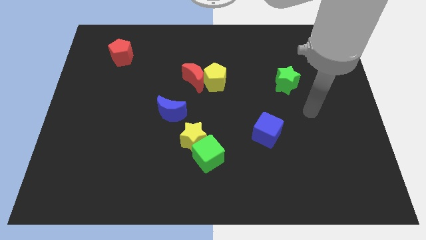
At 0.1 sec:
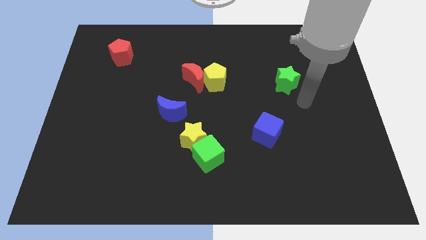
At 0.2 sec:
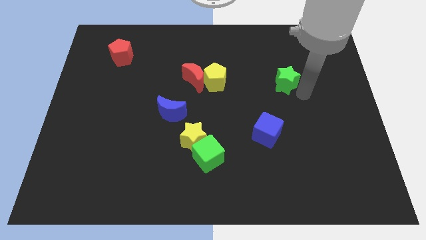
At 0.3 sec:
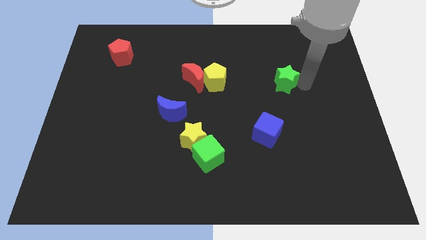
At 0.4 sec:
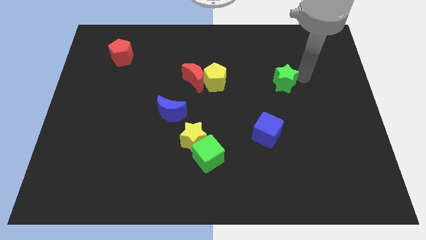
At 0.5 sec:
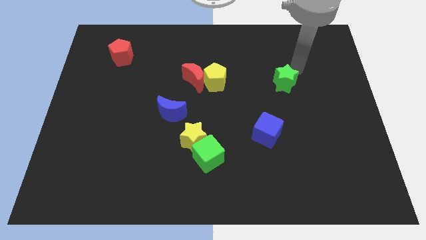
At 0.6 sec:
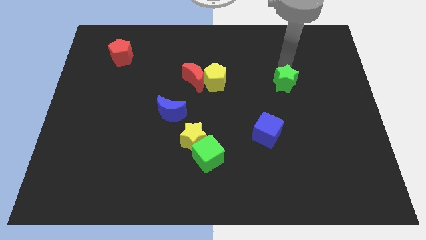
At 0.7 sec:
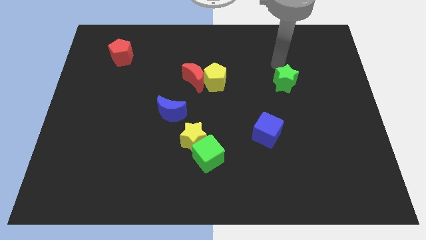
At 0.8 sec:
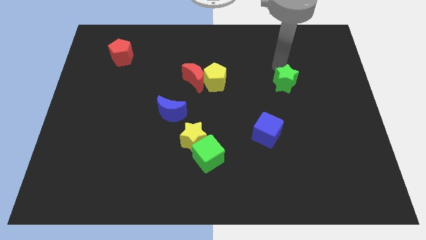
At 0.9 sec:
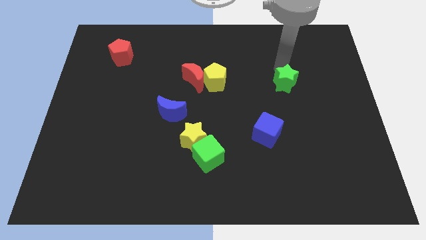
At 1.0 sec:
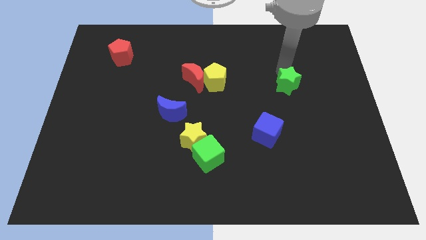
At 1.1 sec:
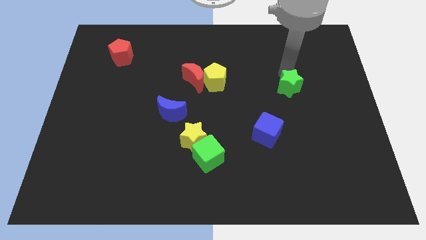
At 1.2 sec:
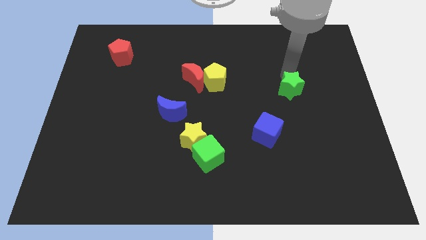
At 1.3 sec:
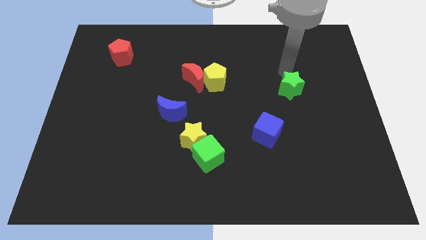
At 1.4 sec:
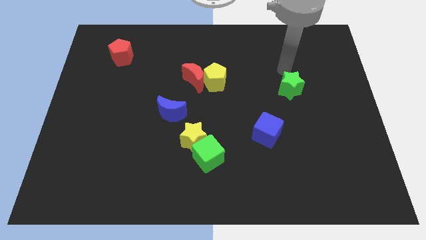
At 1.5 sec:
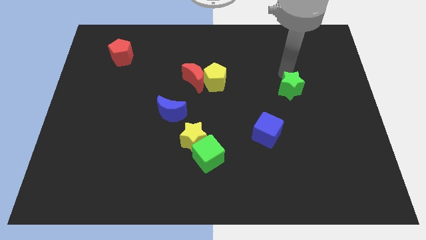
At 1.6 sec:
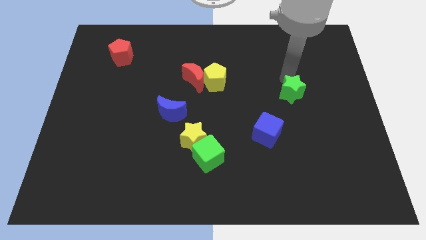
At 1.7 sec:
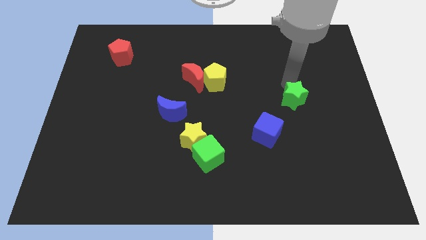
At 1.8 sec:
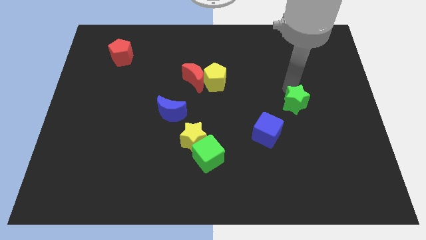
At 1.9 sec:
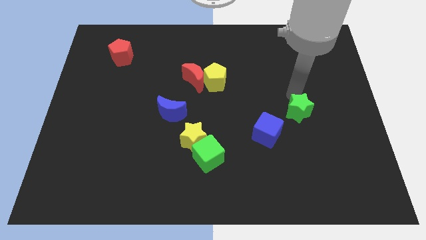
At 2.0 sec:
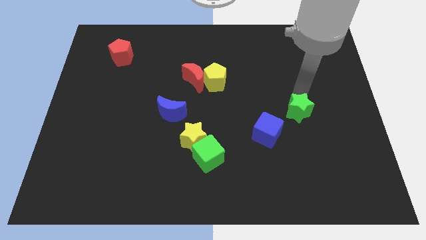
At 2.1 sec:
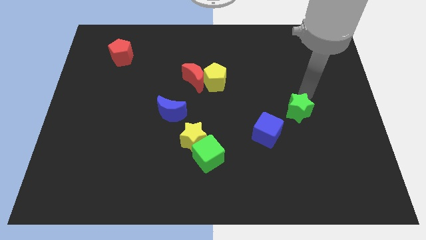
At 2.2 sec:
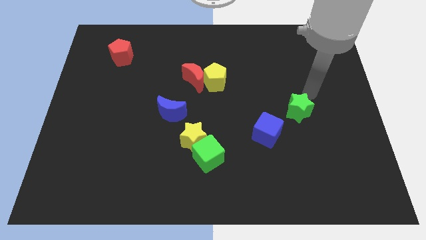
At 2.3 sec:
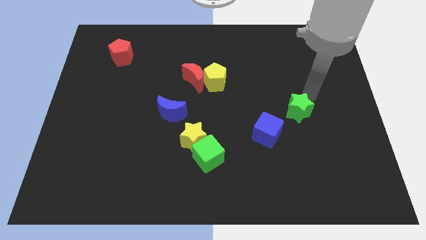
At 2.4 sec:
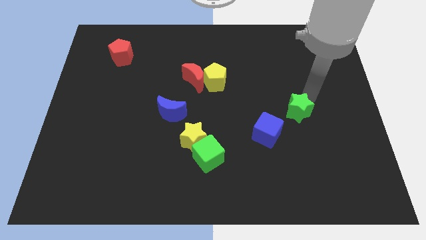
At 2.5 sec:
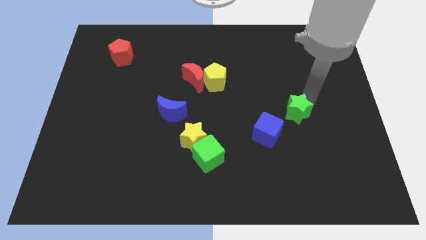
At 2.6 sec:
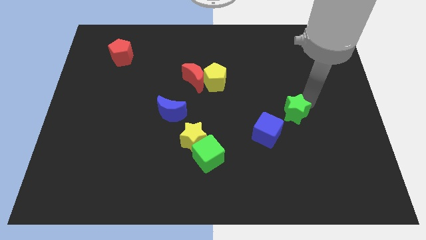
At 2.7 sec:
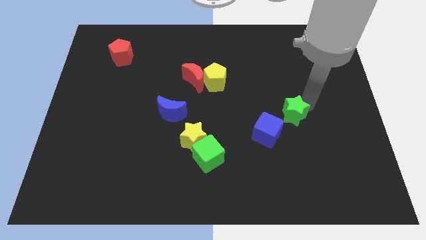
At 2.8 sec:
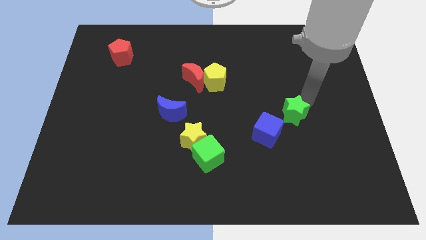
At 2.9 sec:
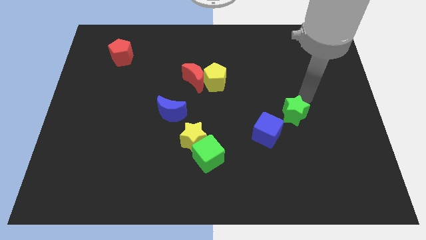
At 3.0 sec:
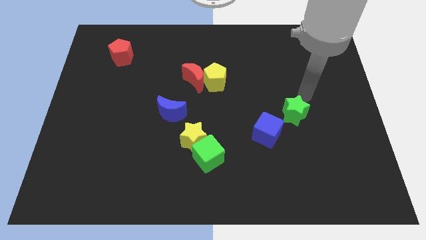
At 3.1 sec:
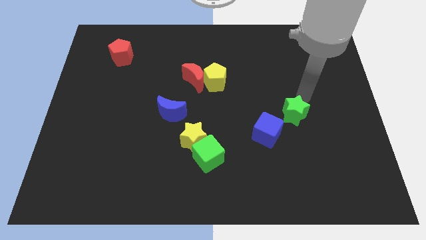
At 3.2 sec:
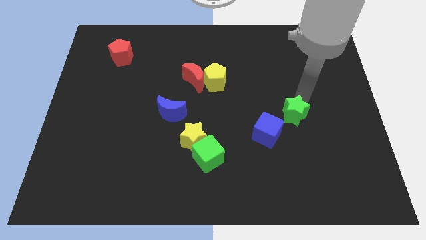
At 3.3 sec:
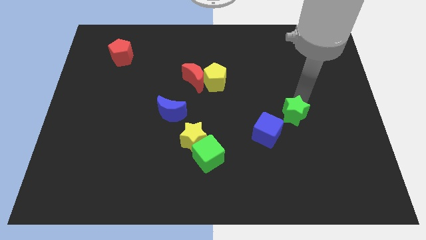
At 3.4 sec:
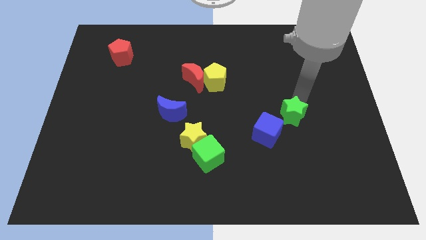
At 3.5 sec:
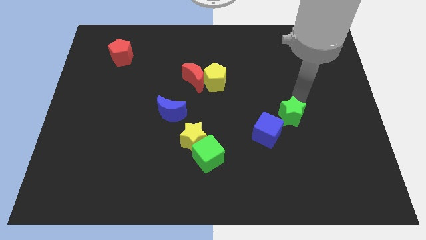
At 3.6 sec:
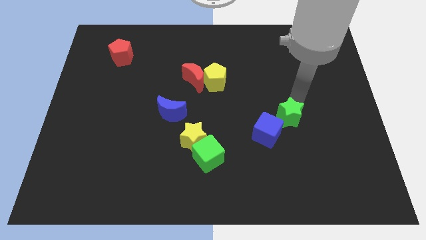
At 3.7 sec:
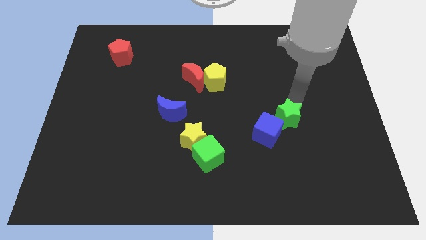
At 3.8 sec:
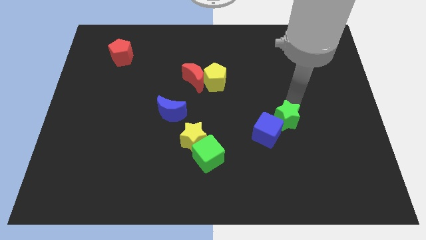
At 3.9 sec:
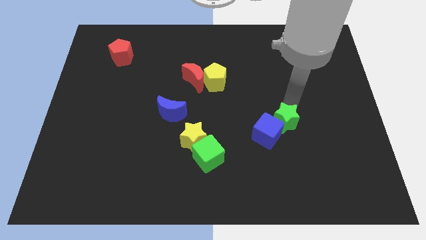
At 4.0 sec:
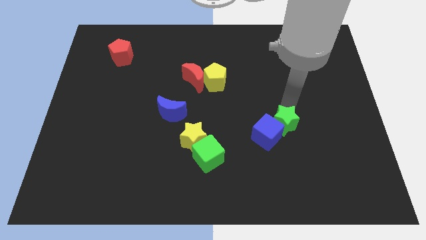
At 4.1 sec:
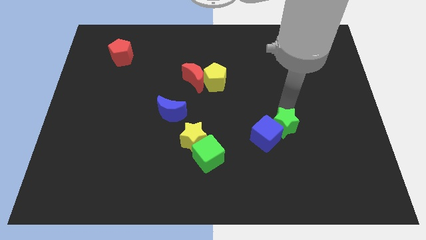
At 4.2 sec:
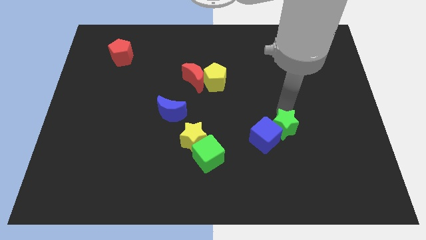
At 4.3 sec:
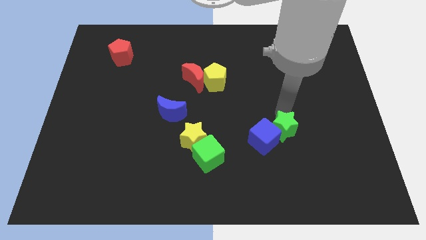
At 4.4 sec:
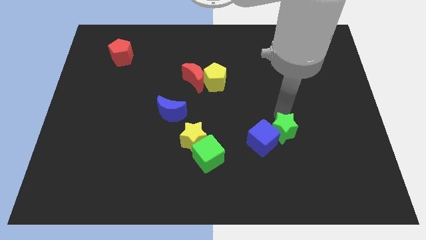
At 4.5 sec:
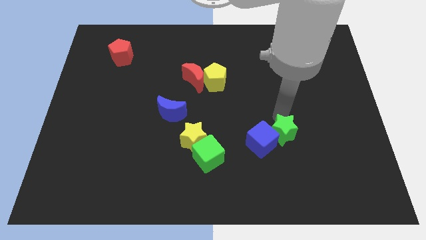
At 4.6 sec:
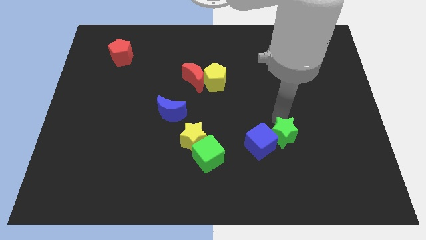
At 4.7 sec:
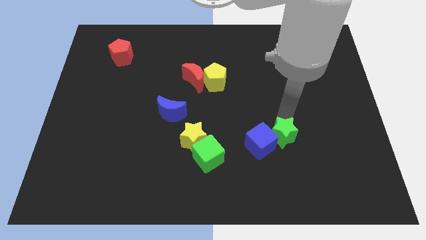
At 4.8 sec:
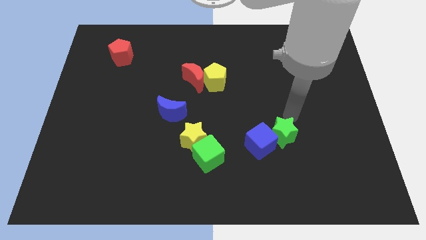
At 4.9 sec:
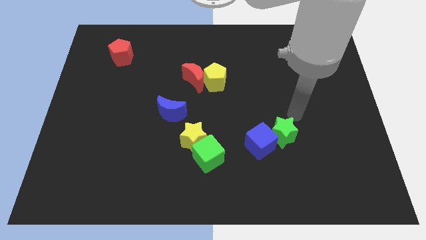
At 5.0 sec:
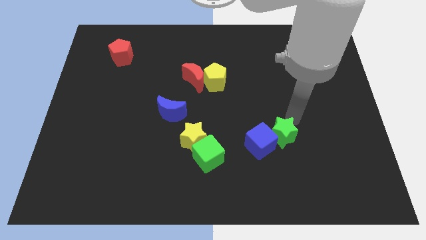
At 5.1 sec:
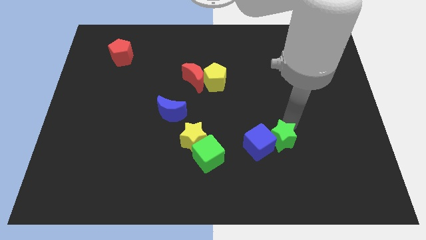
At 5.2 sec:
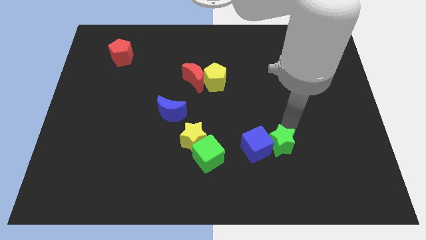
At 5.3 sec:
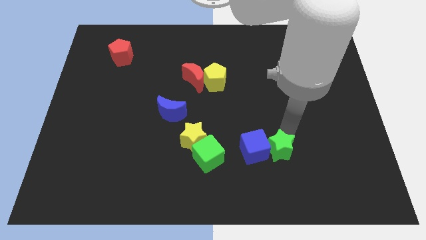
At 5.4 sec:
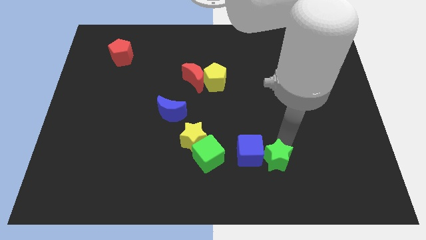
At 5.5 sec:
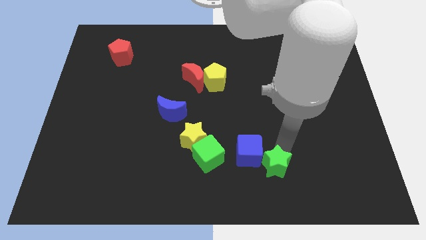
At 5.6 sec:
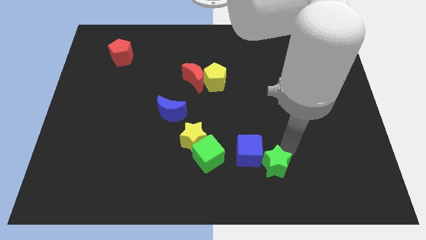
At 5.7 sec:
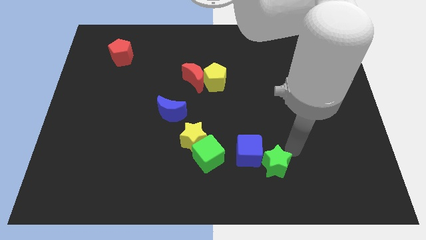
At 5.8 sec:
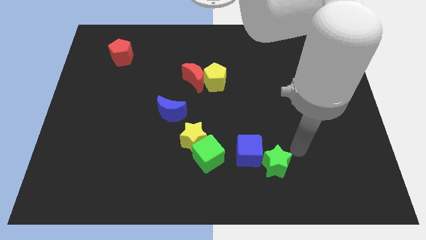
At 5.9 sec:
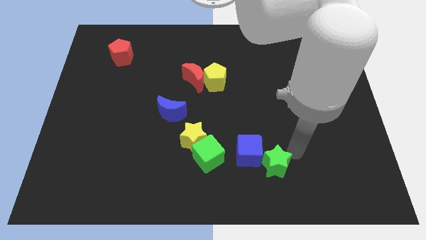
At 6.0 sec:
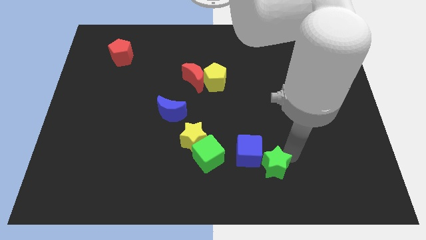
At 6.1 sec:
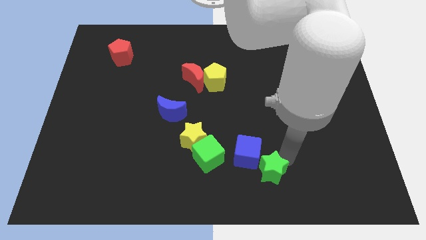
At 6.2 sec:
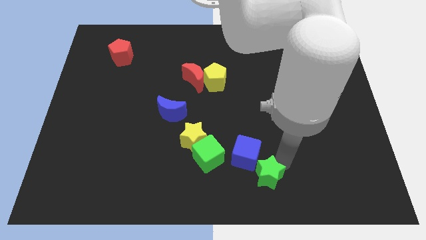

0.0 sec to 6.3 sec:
slide the green star to the bottom

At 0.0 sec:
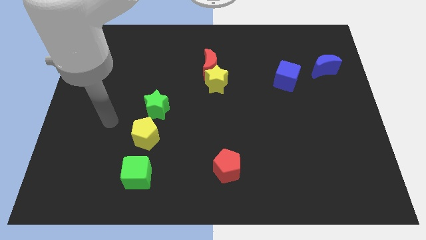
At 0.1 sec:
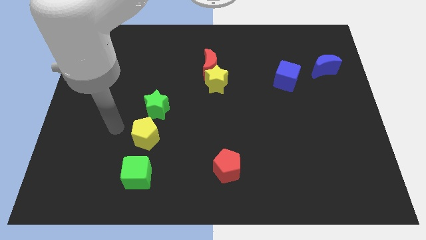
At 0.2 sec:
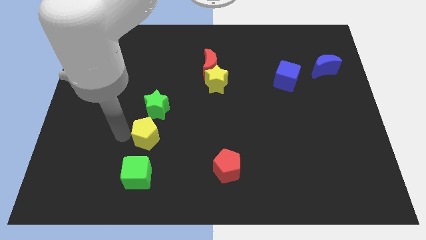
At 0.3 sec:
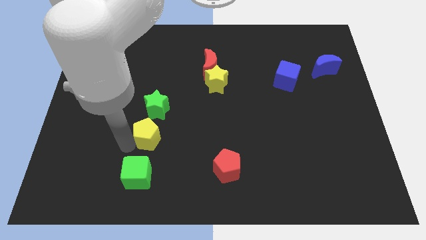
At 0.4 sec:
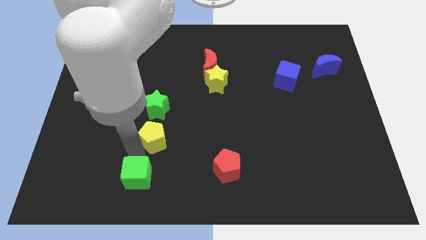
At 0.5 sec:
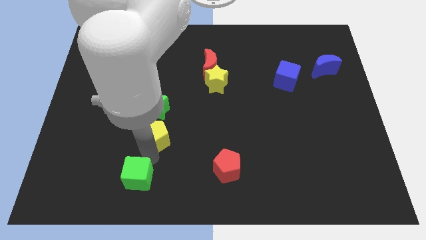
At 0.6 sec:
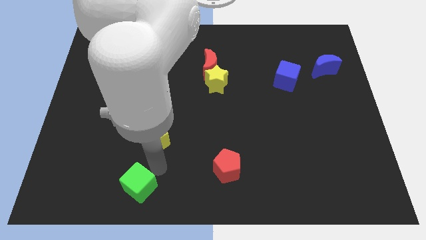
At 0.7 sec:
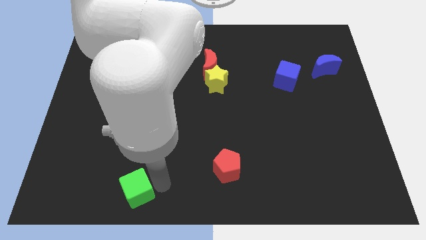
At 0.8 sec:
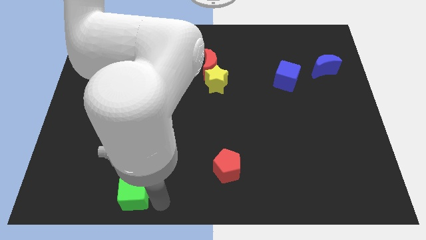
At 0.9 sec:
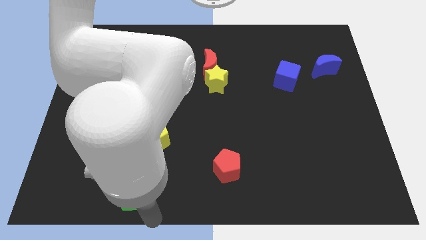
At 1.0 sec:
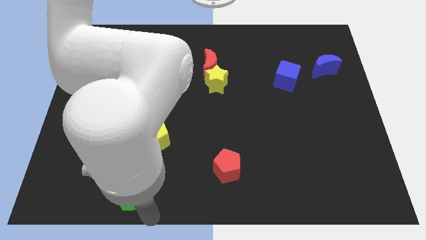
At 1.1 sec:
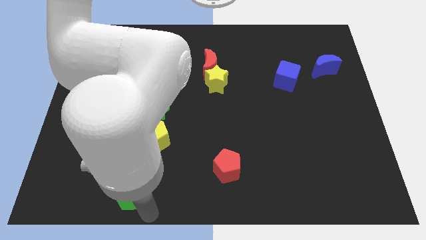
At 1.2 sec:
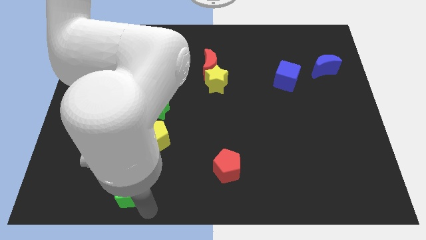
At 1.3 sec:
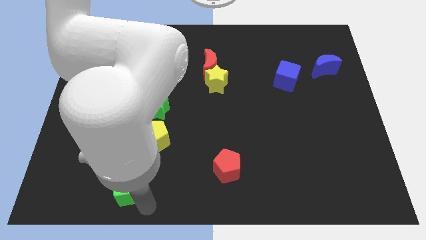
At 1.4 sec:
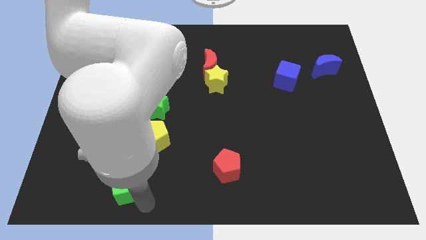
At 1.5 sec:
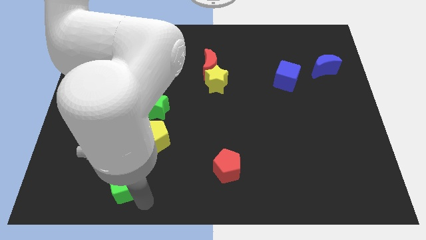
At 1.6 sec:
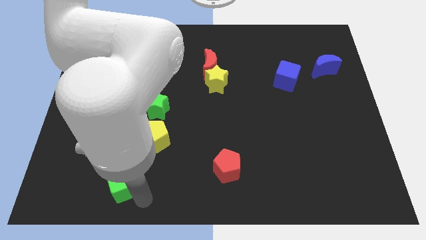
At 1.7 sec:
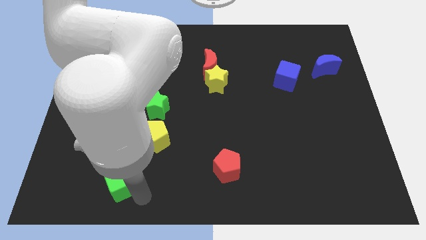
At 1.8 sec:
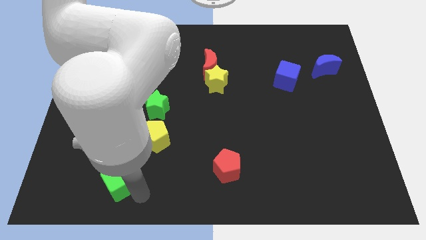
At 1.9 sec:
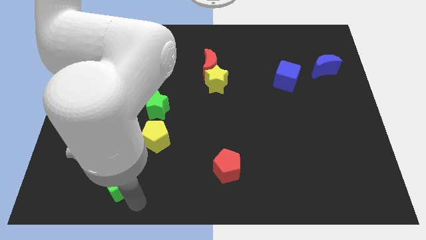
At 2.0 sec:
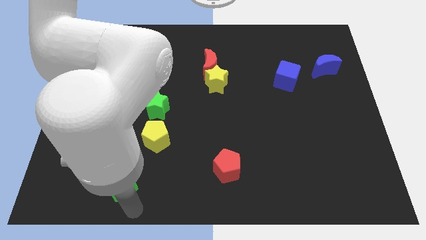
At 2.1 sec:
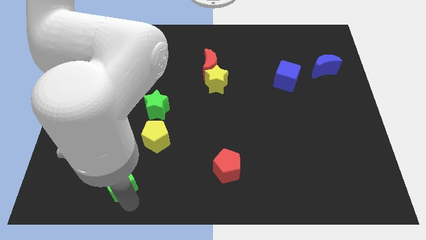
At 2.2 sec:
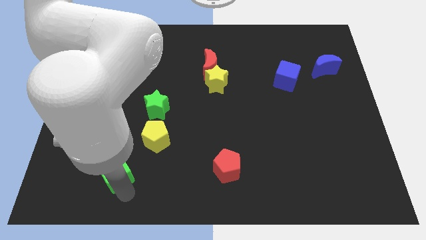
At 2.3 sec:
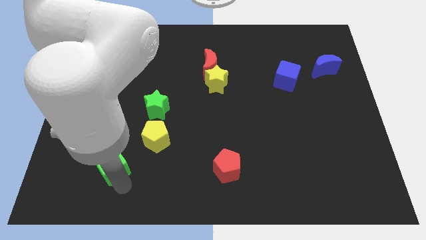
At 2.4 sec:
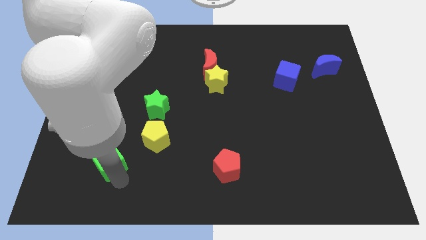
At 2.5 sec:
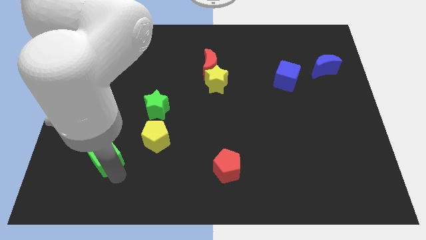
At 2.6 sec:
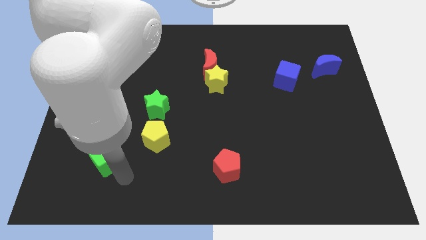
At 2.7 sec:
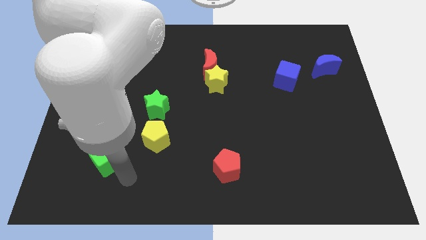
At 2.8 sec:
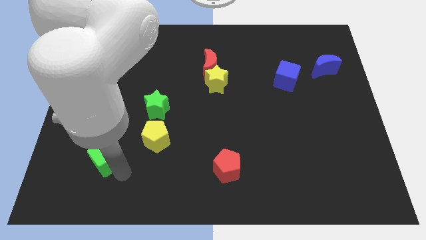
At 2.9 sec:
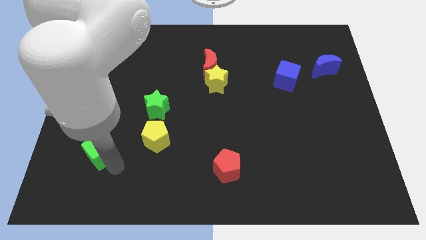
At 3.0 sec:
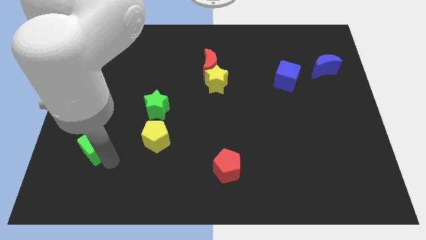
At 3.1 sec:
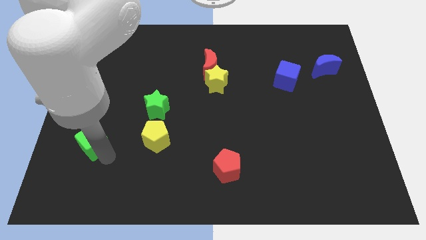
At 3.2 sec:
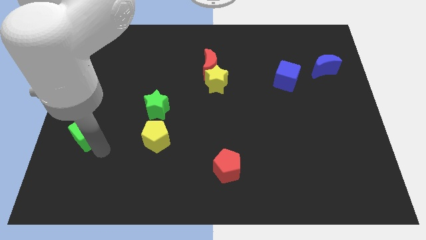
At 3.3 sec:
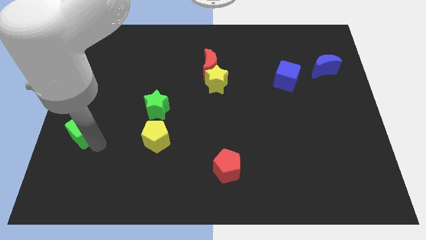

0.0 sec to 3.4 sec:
move the green cube to the left side of the board
